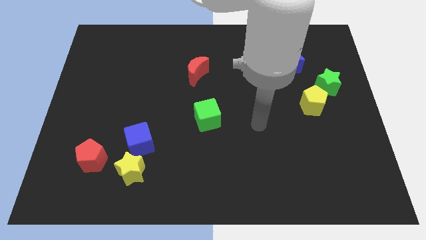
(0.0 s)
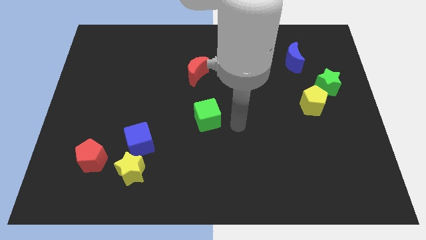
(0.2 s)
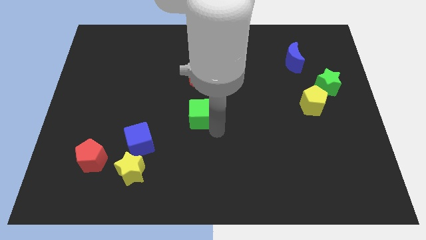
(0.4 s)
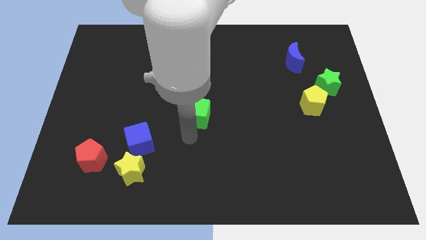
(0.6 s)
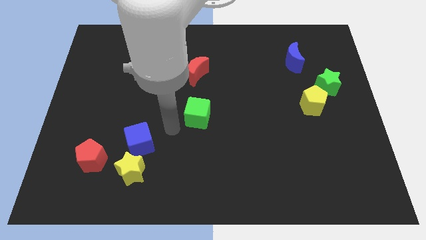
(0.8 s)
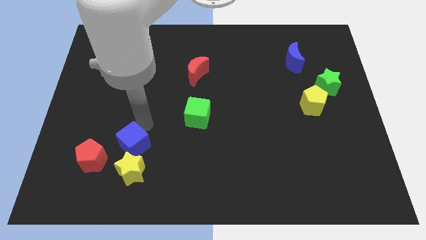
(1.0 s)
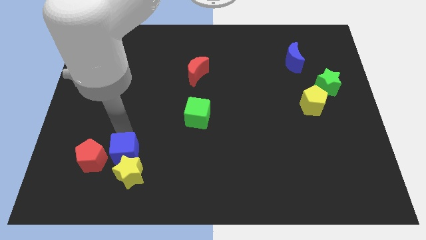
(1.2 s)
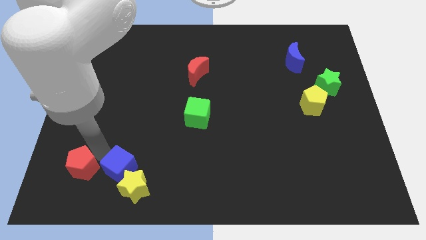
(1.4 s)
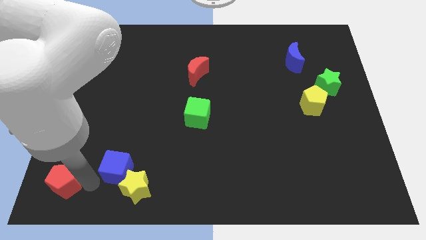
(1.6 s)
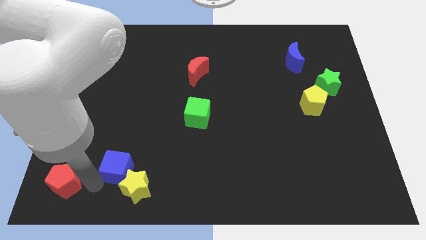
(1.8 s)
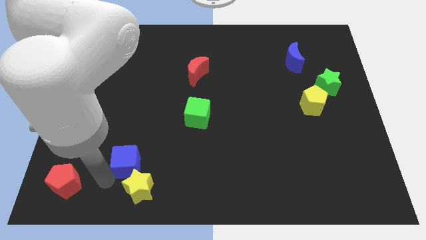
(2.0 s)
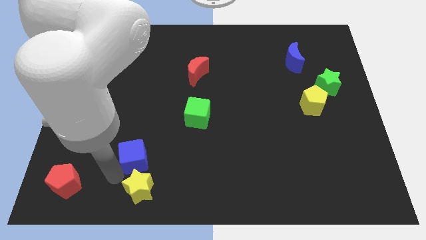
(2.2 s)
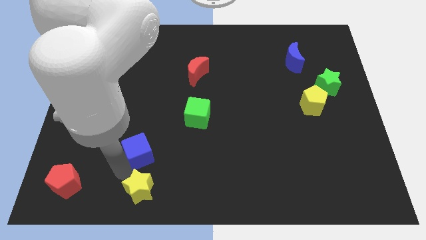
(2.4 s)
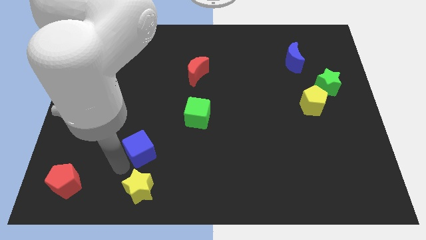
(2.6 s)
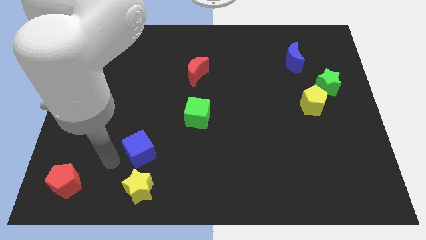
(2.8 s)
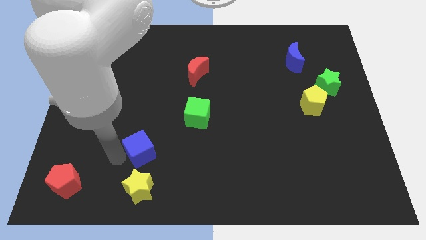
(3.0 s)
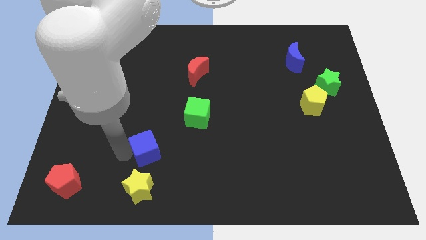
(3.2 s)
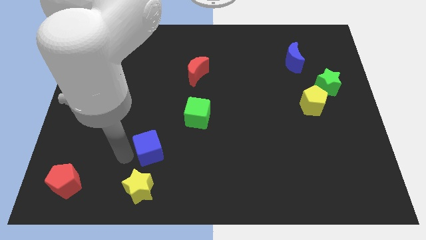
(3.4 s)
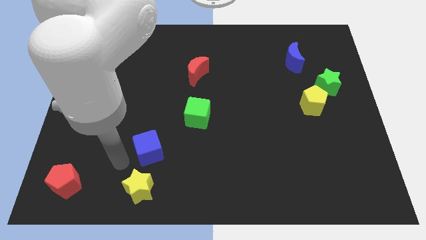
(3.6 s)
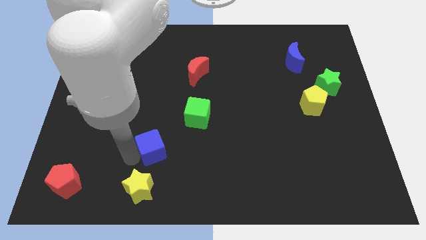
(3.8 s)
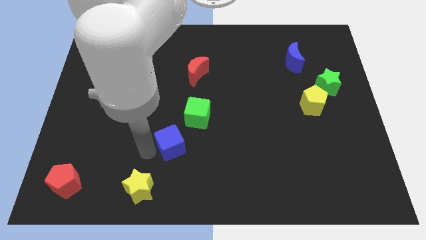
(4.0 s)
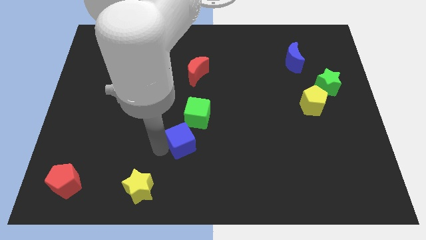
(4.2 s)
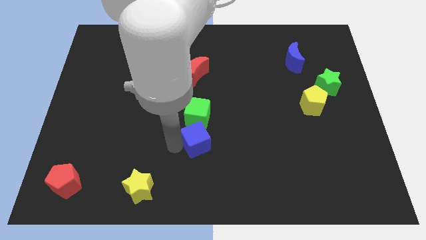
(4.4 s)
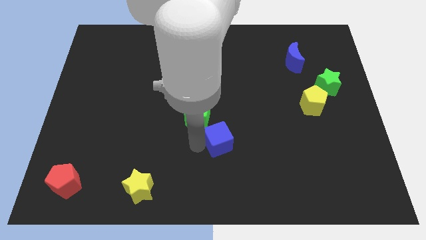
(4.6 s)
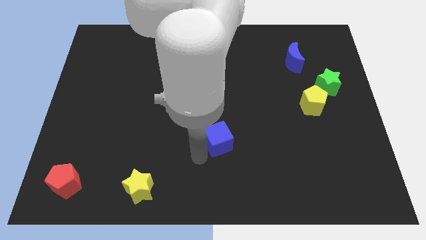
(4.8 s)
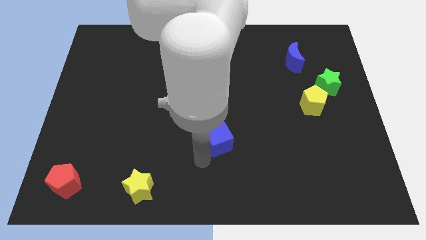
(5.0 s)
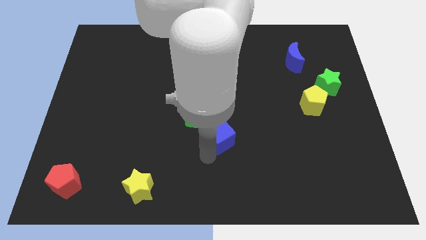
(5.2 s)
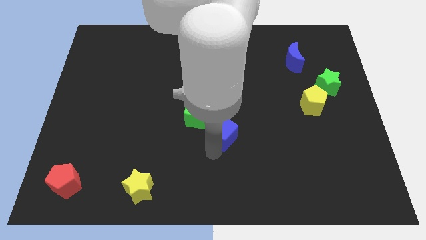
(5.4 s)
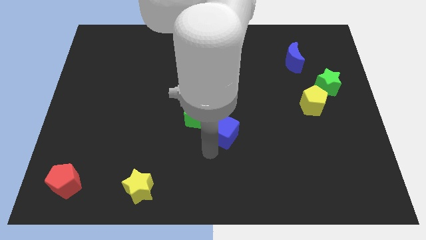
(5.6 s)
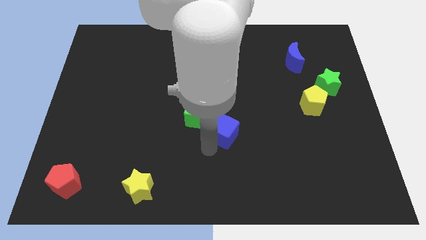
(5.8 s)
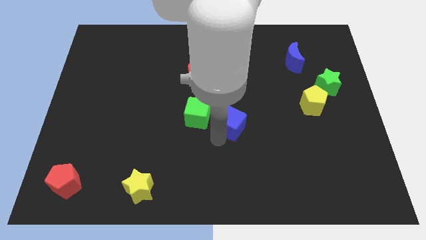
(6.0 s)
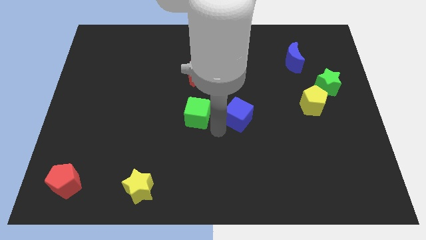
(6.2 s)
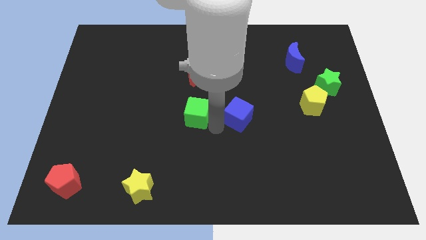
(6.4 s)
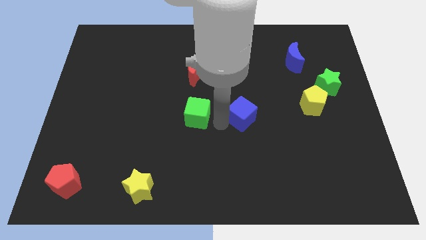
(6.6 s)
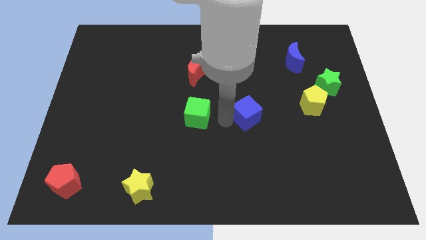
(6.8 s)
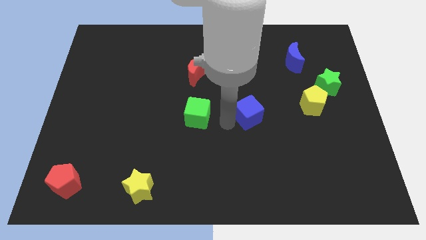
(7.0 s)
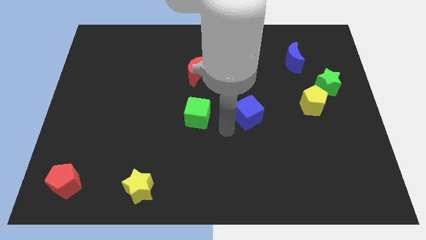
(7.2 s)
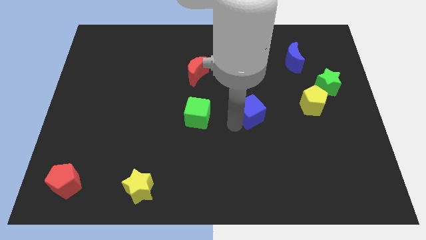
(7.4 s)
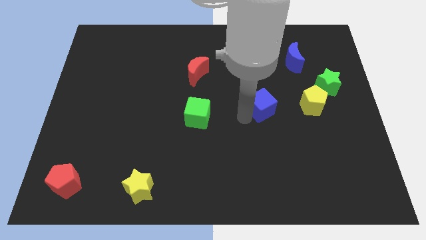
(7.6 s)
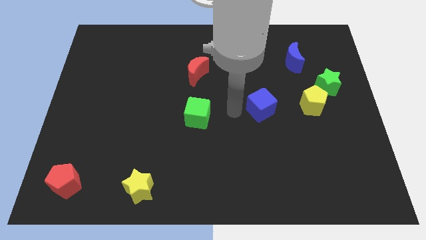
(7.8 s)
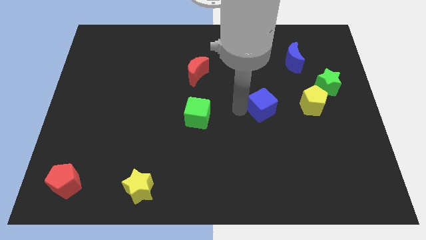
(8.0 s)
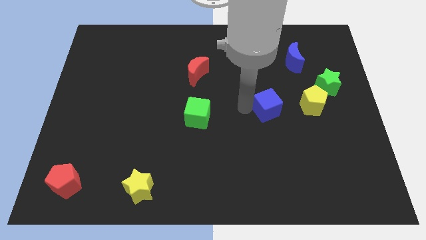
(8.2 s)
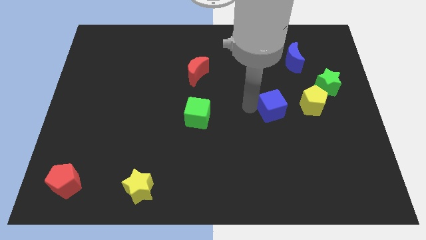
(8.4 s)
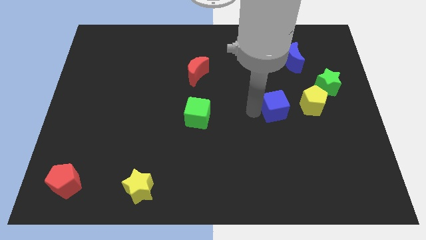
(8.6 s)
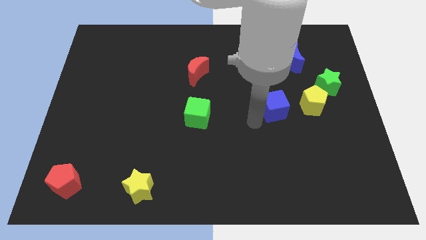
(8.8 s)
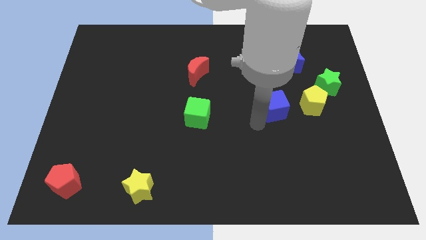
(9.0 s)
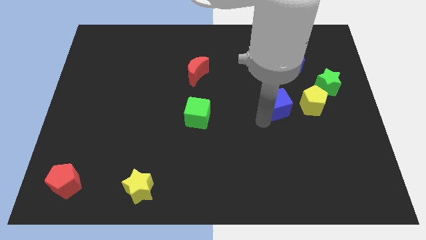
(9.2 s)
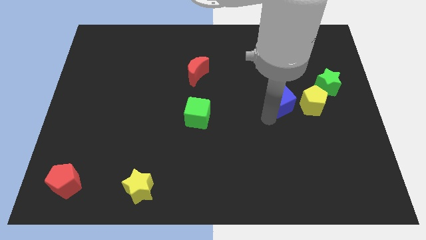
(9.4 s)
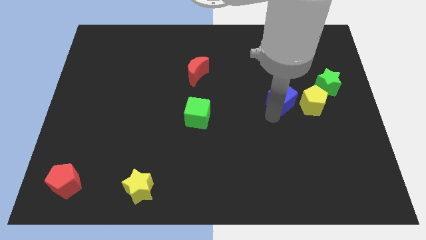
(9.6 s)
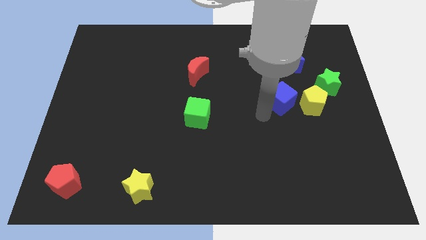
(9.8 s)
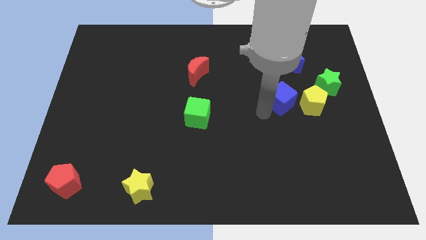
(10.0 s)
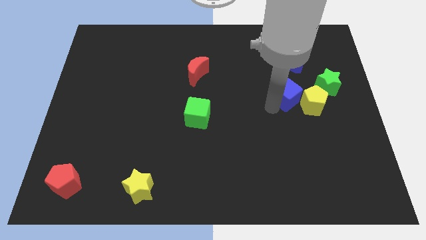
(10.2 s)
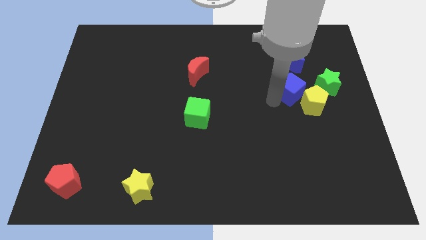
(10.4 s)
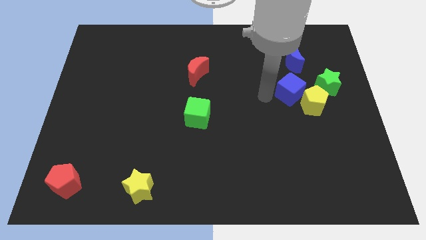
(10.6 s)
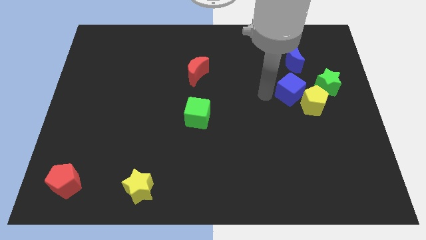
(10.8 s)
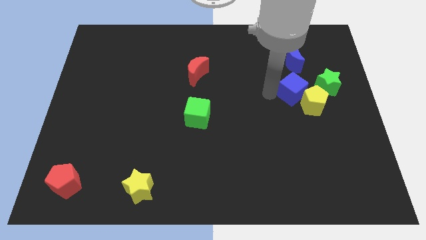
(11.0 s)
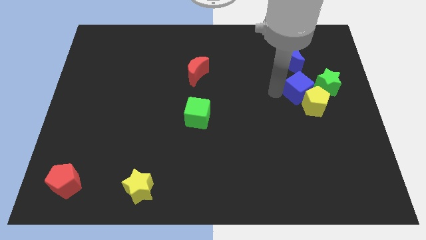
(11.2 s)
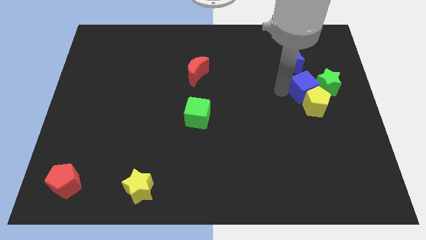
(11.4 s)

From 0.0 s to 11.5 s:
put the blue cube to the green star

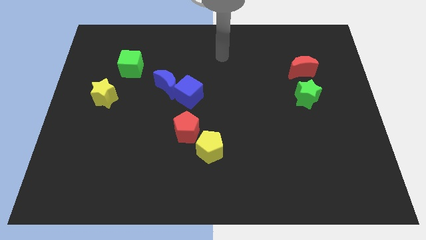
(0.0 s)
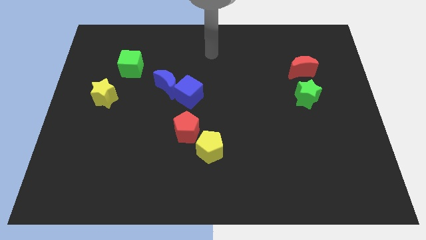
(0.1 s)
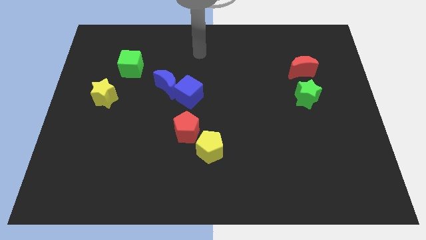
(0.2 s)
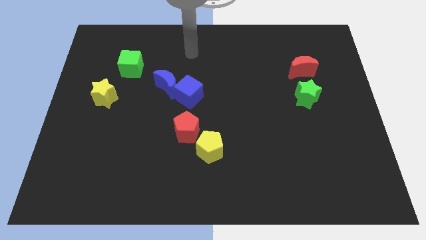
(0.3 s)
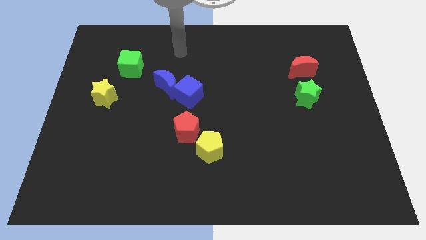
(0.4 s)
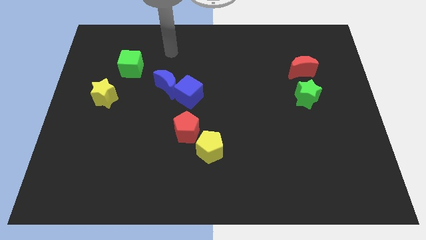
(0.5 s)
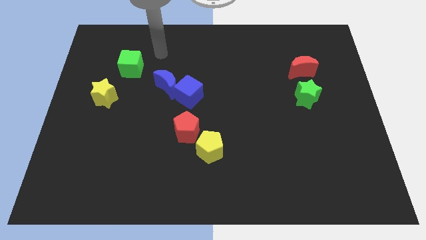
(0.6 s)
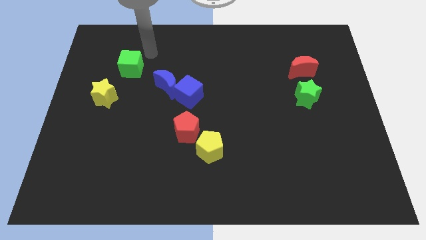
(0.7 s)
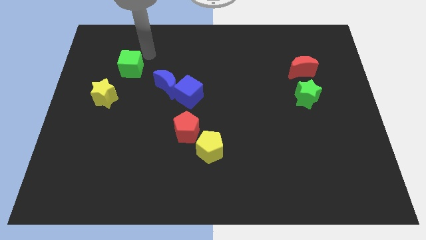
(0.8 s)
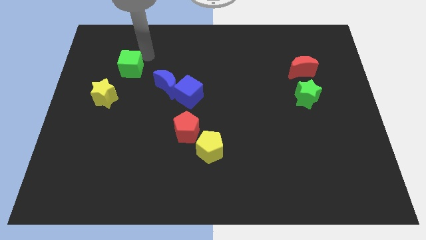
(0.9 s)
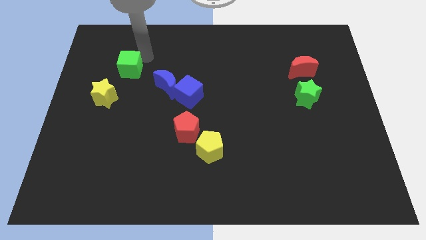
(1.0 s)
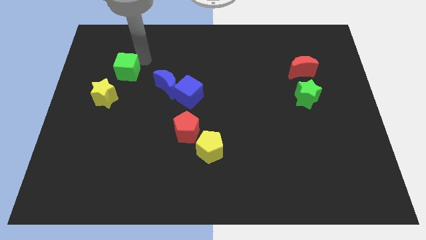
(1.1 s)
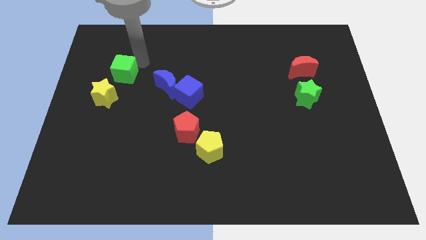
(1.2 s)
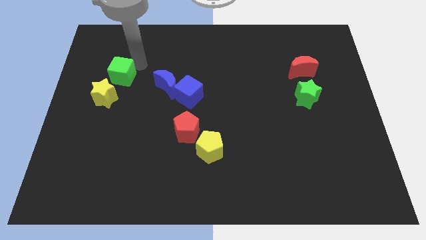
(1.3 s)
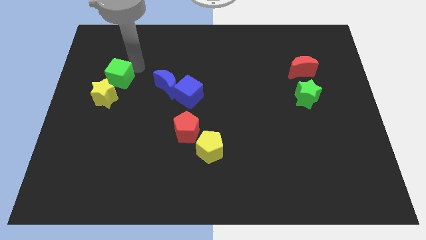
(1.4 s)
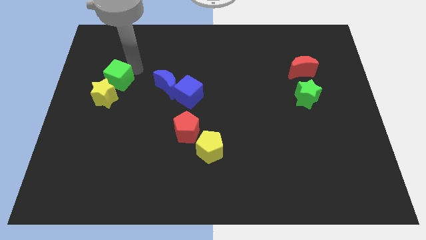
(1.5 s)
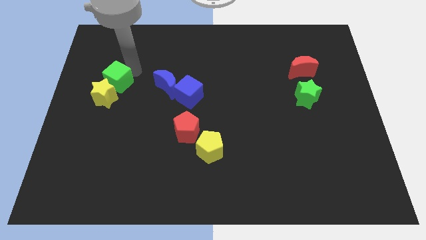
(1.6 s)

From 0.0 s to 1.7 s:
move the green cube towards the yellow star
